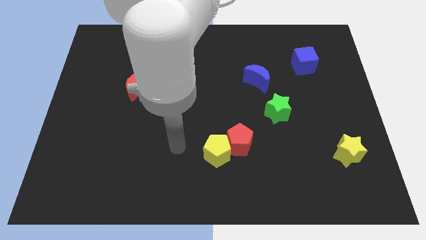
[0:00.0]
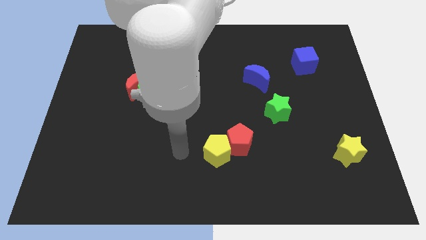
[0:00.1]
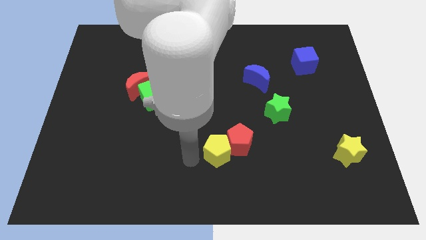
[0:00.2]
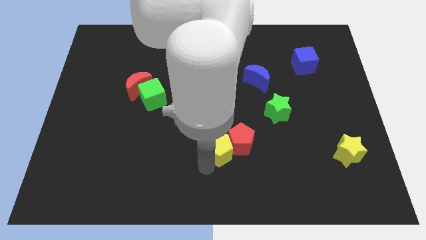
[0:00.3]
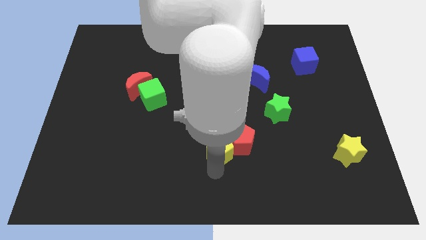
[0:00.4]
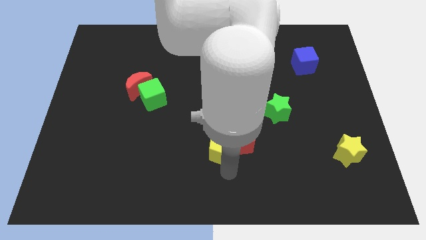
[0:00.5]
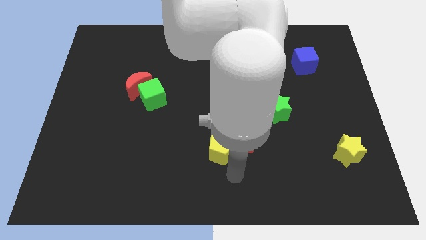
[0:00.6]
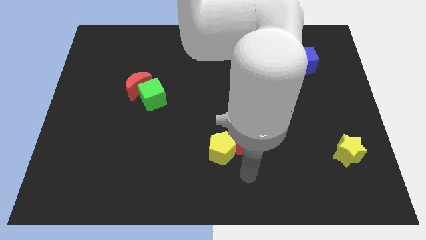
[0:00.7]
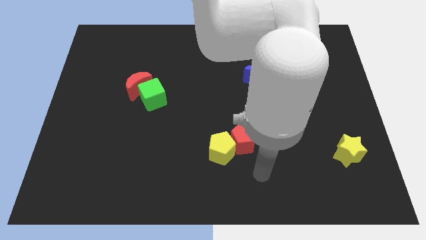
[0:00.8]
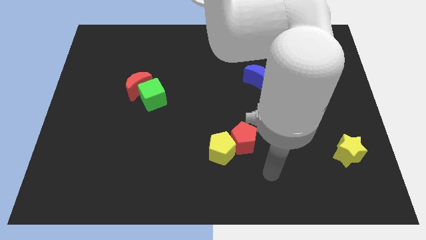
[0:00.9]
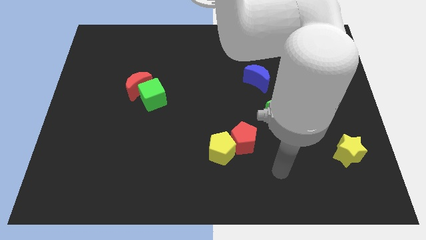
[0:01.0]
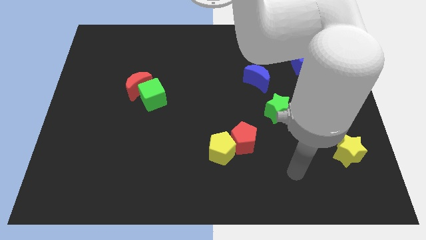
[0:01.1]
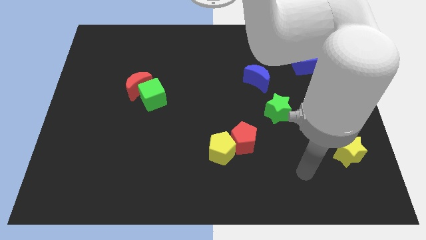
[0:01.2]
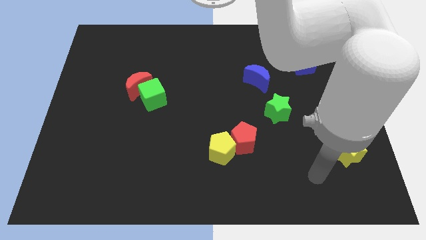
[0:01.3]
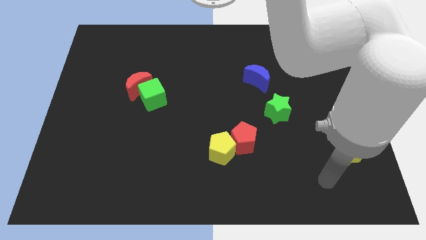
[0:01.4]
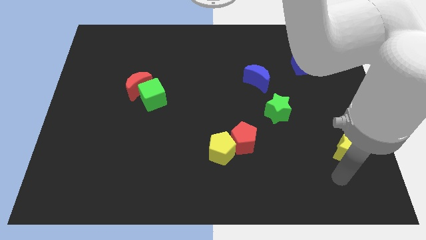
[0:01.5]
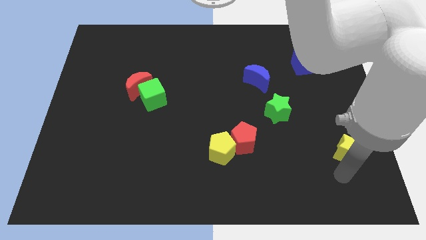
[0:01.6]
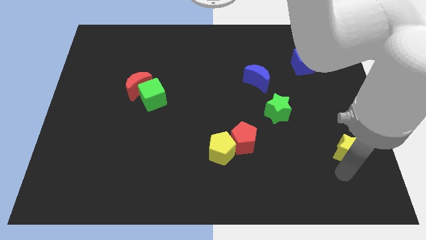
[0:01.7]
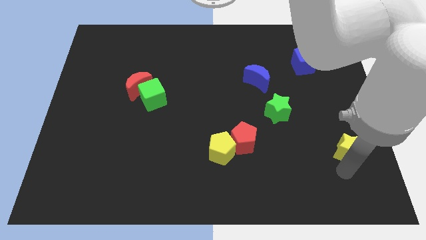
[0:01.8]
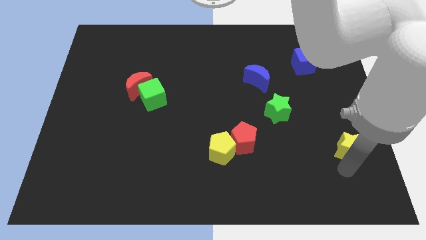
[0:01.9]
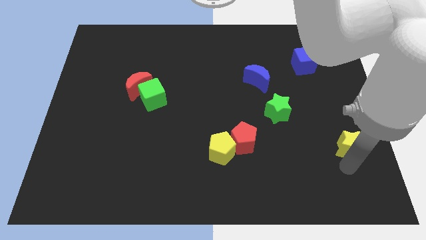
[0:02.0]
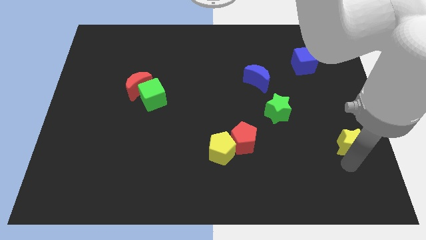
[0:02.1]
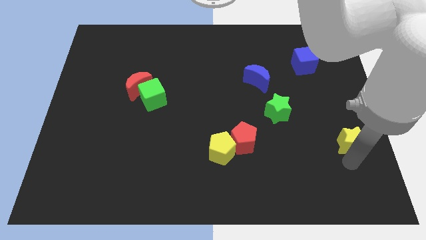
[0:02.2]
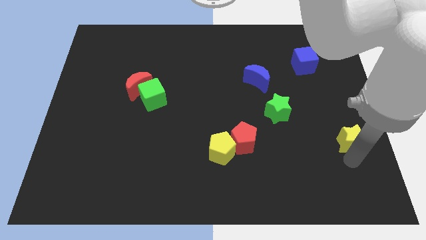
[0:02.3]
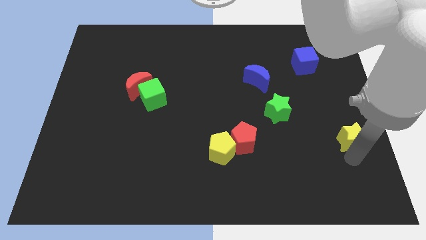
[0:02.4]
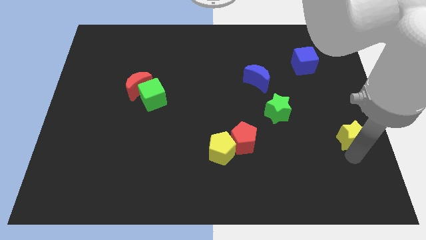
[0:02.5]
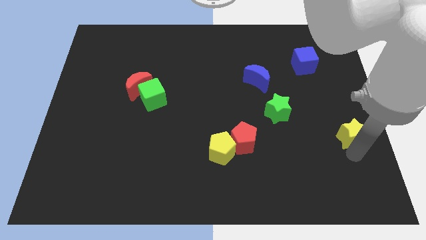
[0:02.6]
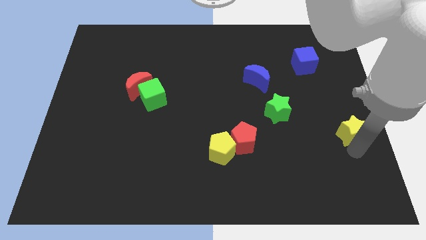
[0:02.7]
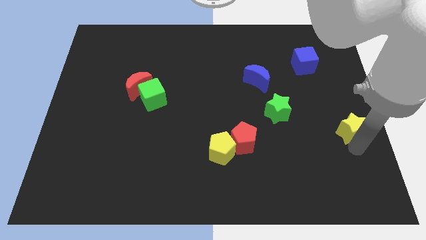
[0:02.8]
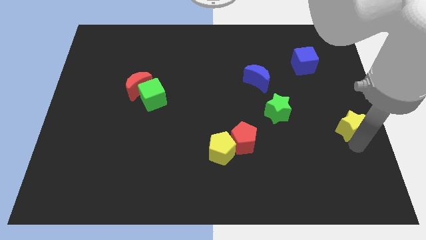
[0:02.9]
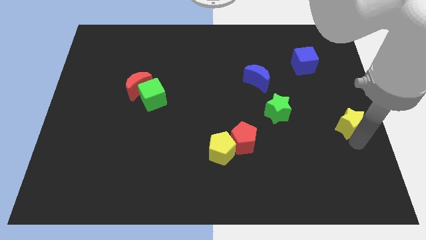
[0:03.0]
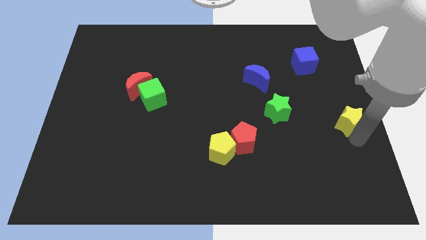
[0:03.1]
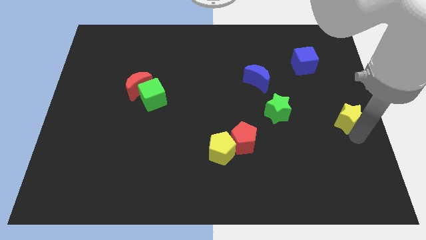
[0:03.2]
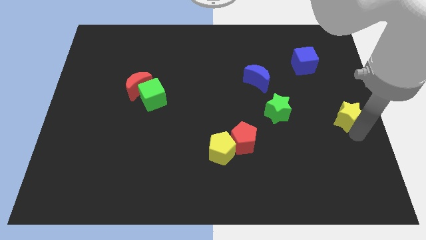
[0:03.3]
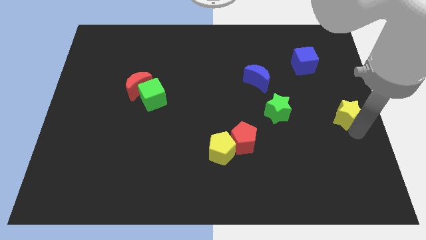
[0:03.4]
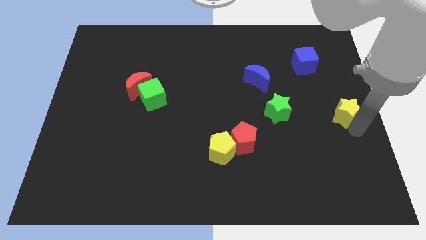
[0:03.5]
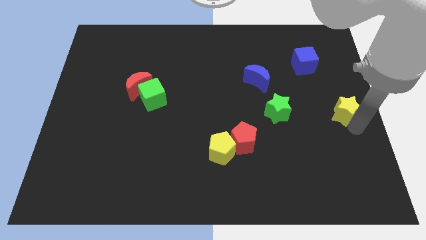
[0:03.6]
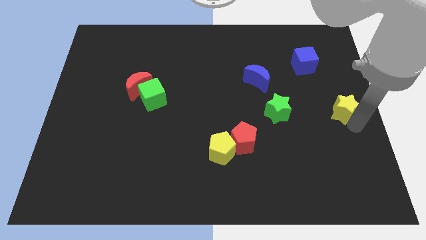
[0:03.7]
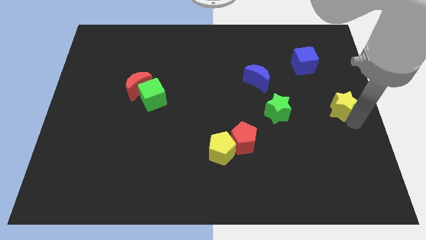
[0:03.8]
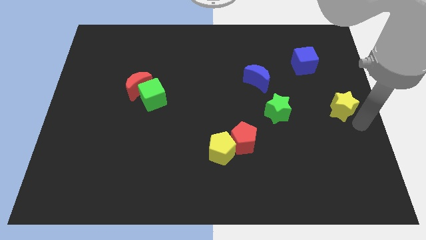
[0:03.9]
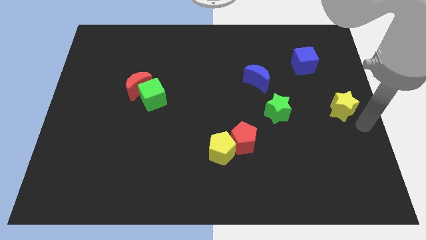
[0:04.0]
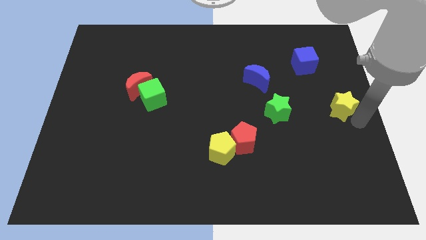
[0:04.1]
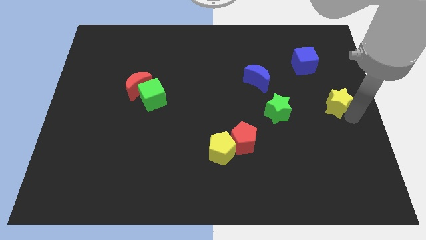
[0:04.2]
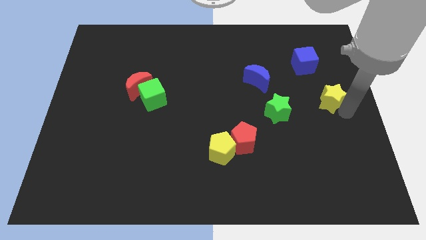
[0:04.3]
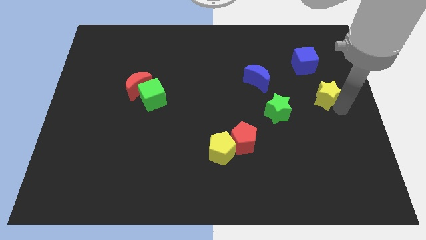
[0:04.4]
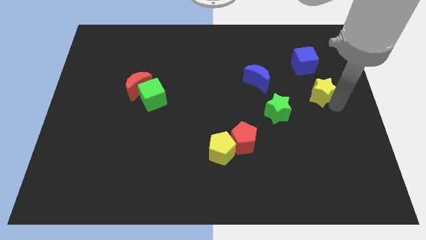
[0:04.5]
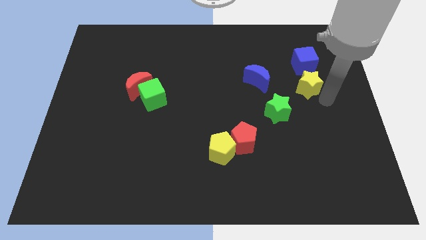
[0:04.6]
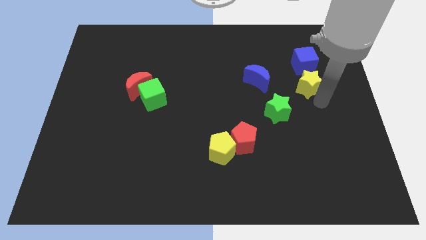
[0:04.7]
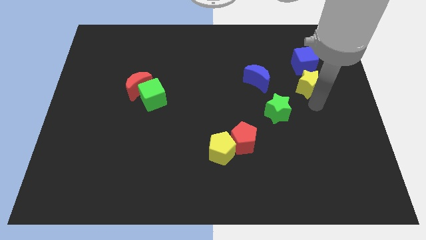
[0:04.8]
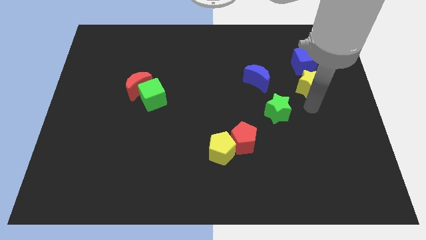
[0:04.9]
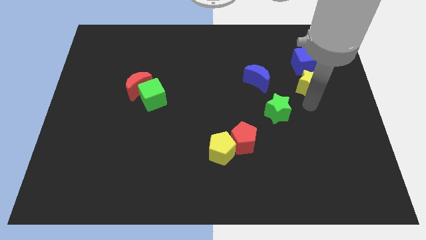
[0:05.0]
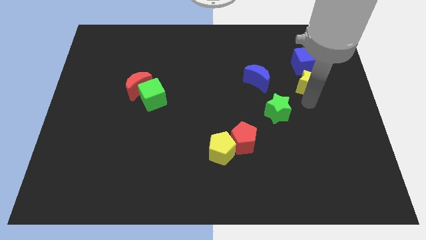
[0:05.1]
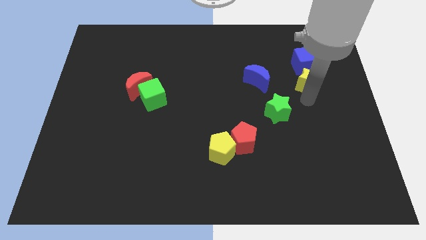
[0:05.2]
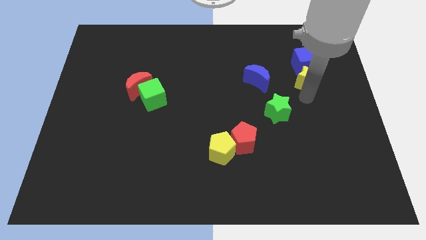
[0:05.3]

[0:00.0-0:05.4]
move the yellow star next to the blue cube

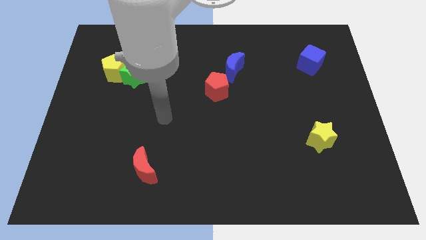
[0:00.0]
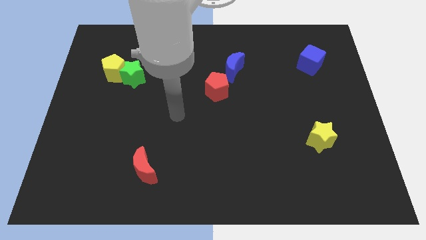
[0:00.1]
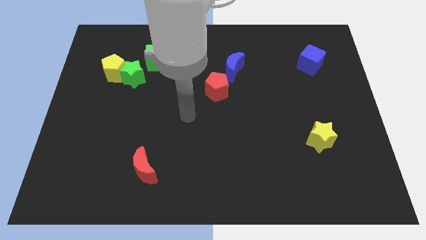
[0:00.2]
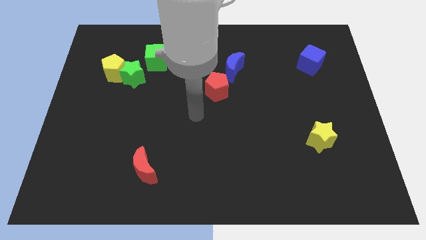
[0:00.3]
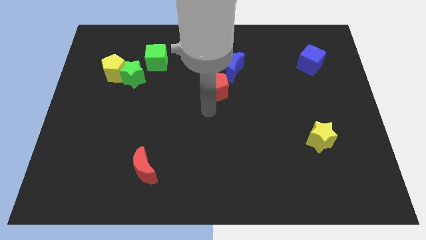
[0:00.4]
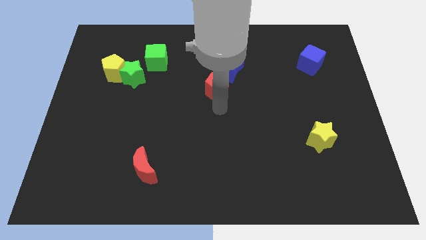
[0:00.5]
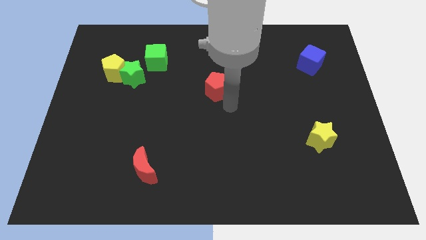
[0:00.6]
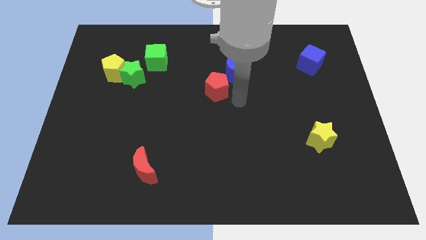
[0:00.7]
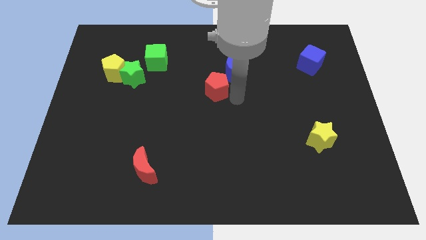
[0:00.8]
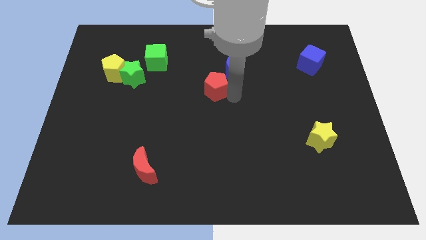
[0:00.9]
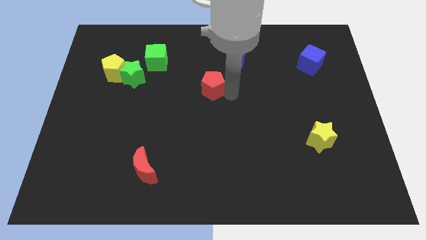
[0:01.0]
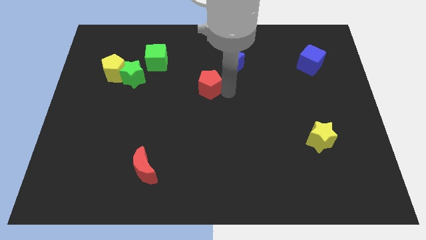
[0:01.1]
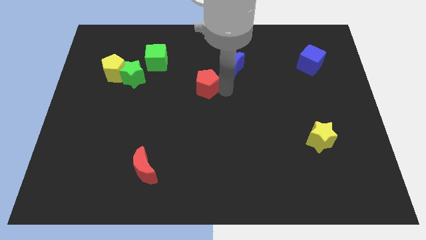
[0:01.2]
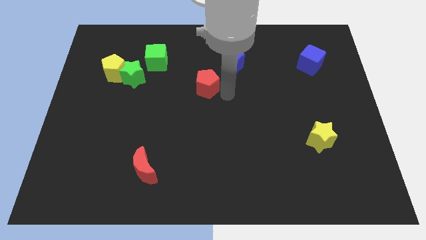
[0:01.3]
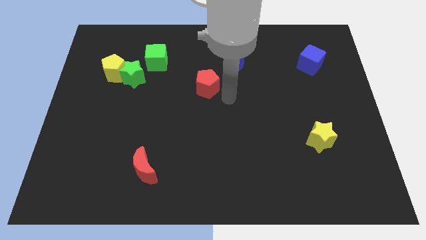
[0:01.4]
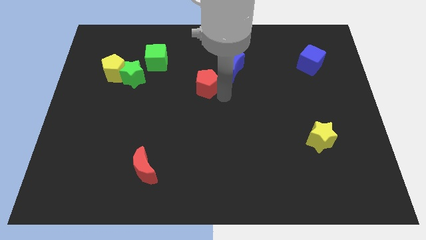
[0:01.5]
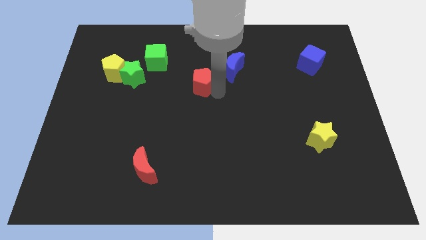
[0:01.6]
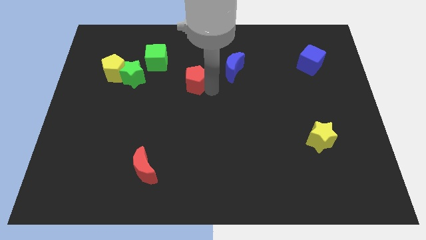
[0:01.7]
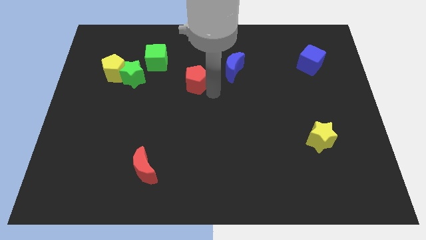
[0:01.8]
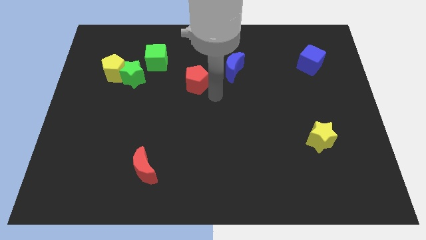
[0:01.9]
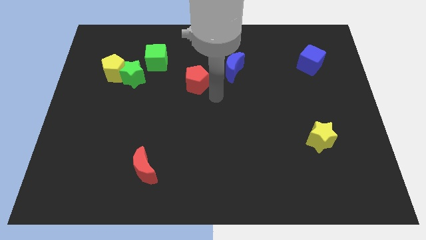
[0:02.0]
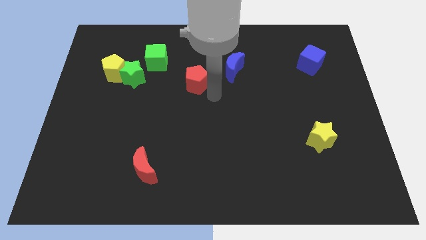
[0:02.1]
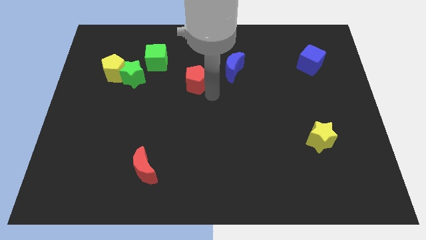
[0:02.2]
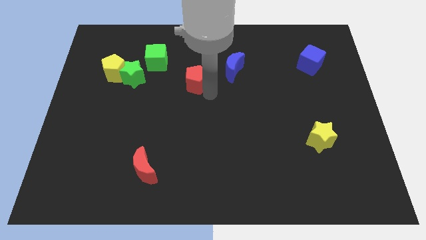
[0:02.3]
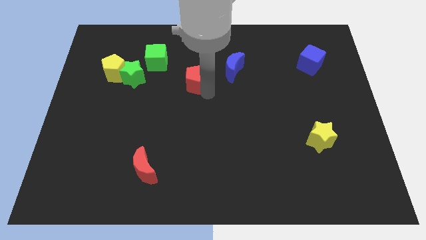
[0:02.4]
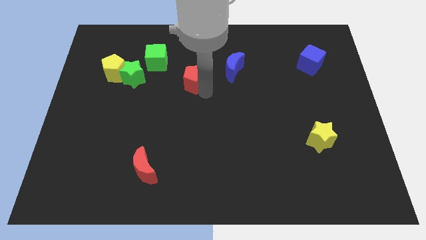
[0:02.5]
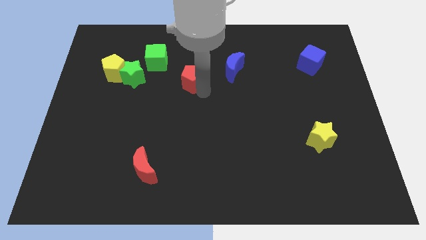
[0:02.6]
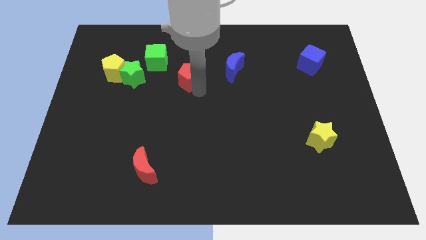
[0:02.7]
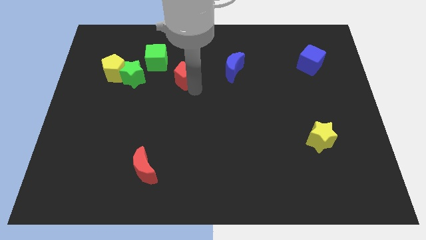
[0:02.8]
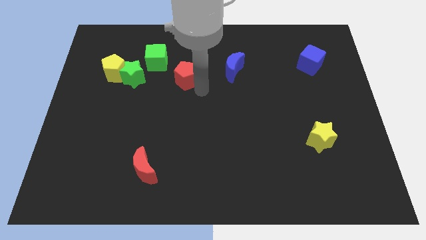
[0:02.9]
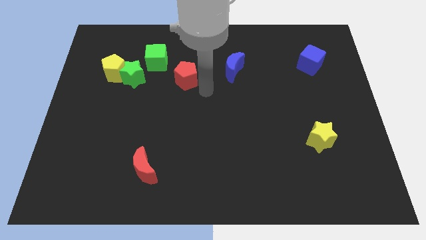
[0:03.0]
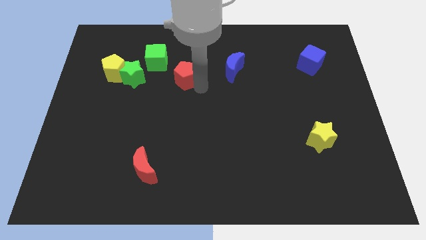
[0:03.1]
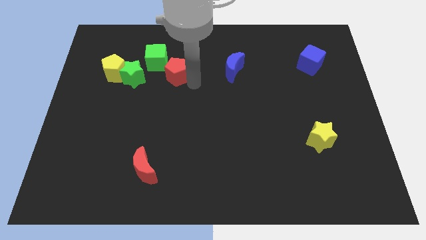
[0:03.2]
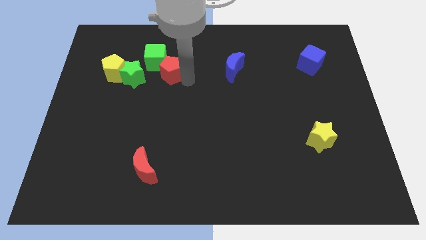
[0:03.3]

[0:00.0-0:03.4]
push the red pentagon to the green cube
